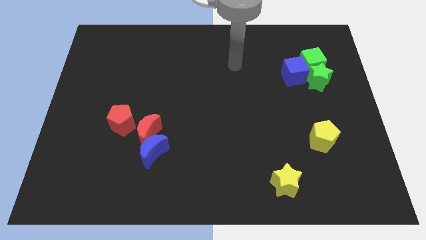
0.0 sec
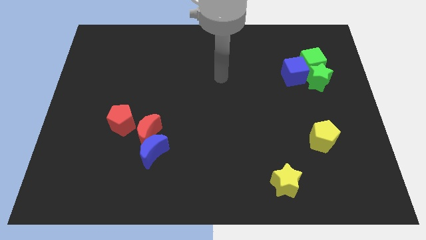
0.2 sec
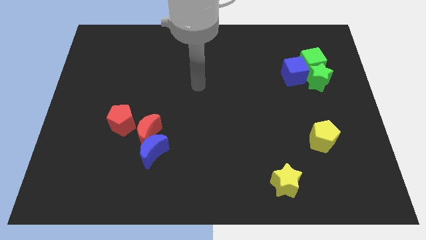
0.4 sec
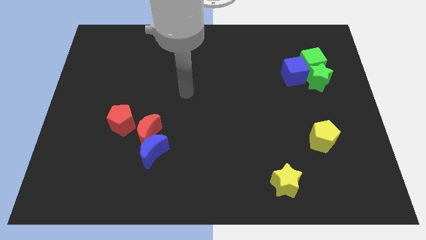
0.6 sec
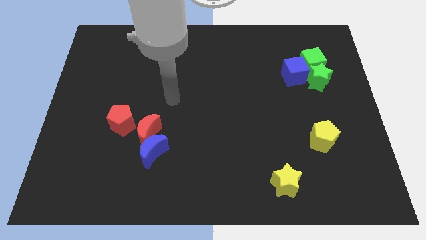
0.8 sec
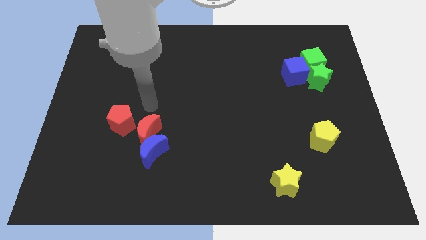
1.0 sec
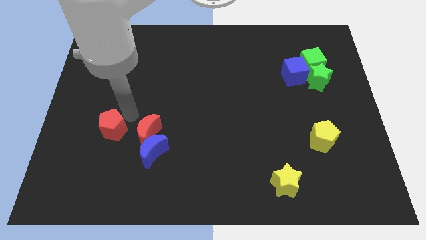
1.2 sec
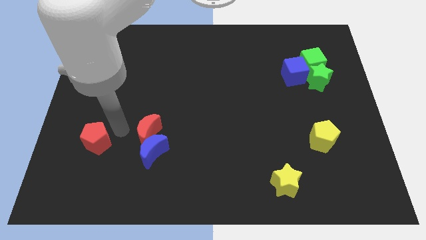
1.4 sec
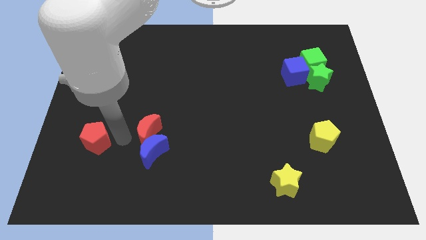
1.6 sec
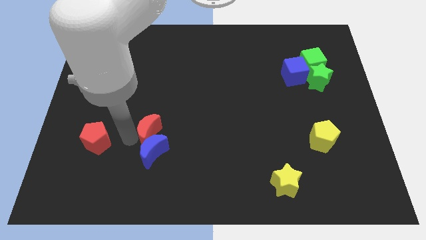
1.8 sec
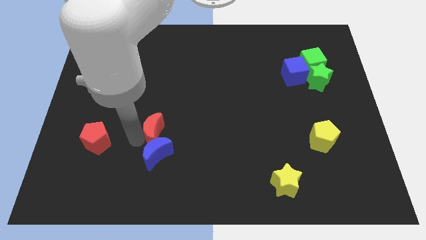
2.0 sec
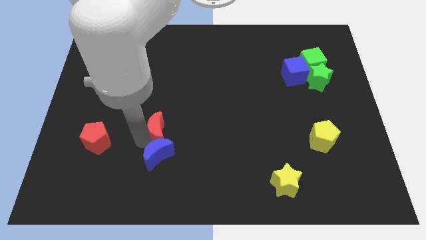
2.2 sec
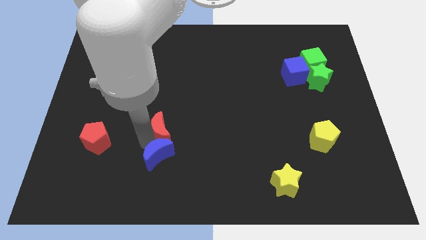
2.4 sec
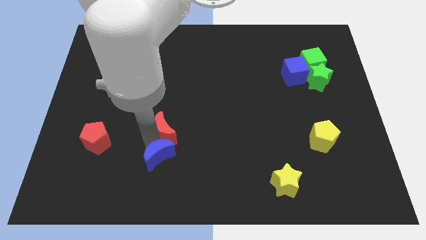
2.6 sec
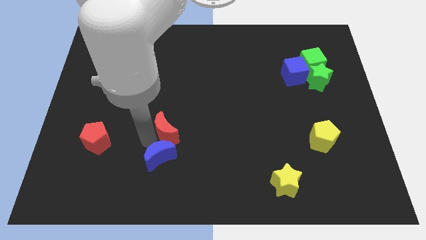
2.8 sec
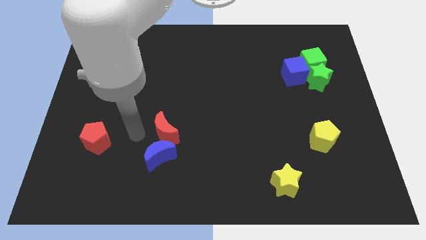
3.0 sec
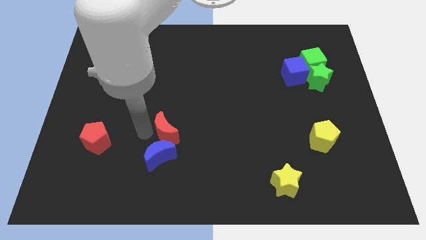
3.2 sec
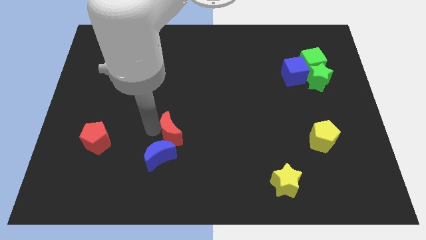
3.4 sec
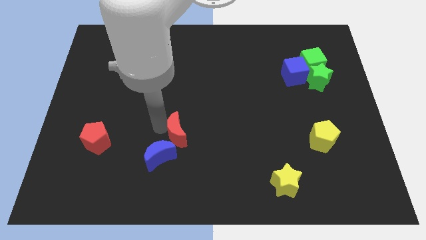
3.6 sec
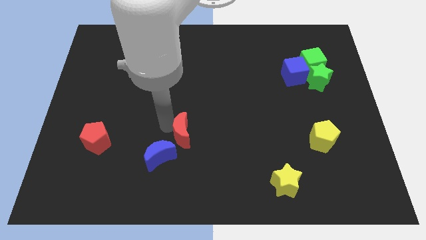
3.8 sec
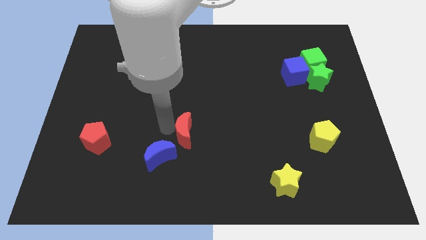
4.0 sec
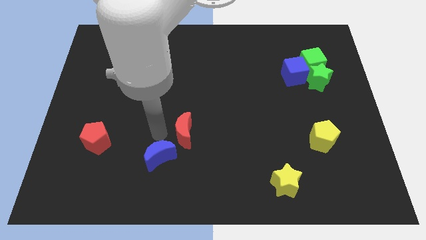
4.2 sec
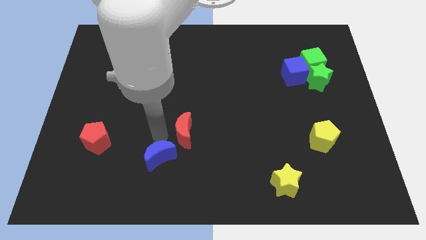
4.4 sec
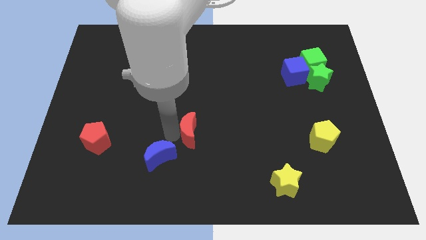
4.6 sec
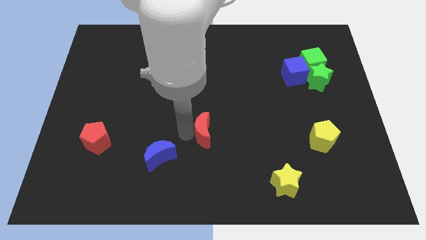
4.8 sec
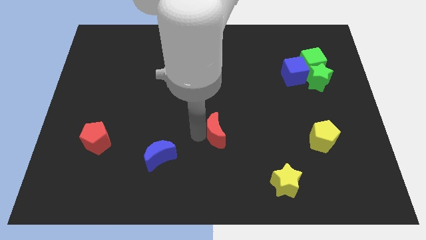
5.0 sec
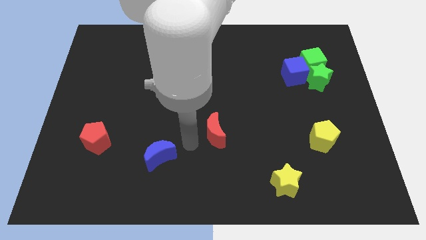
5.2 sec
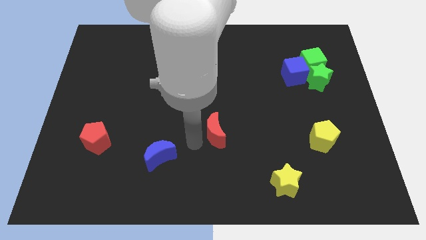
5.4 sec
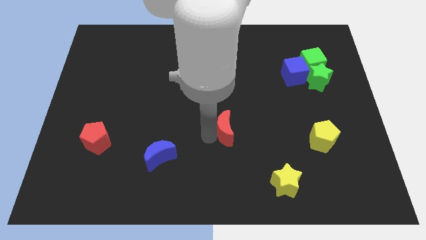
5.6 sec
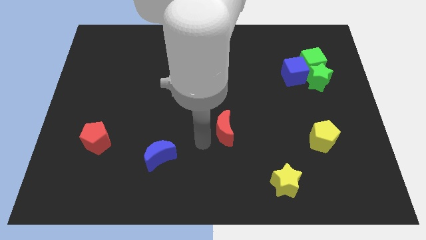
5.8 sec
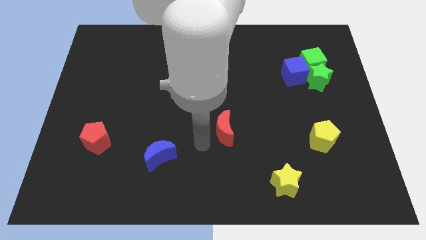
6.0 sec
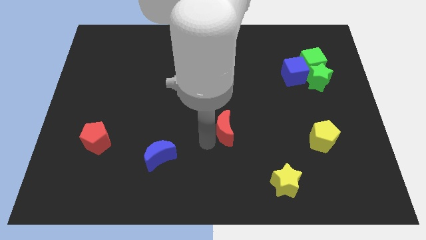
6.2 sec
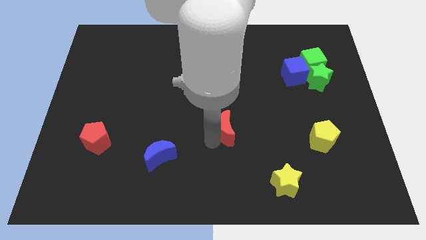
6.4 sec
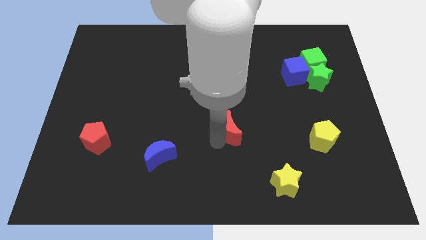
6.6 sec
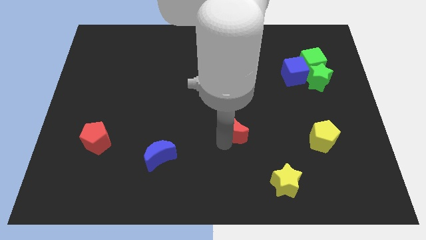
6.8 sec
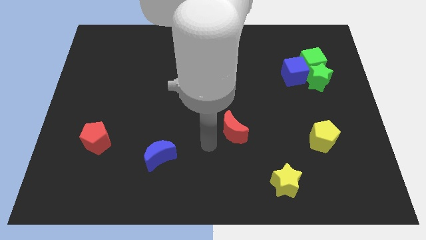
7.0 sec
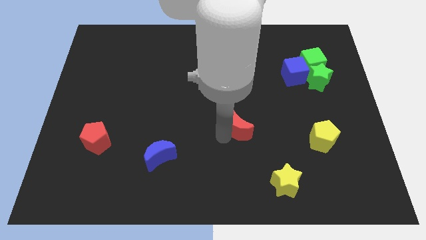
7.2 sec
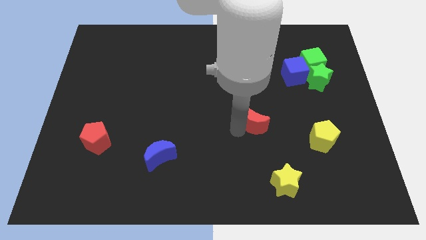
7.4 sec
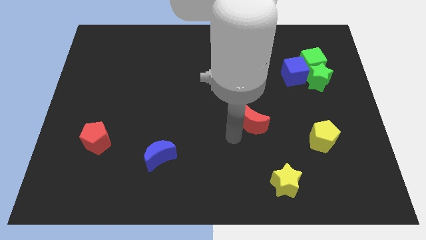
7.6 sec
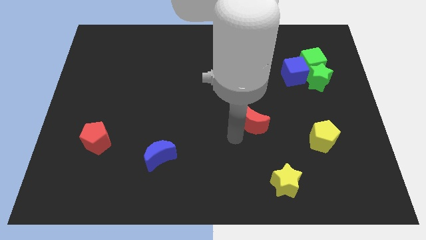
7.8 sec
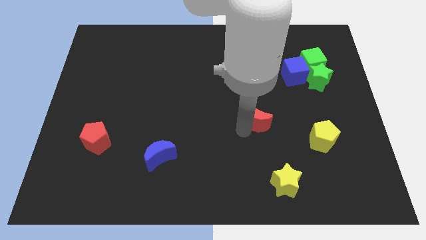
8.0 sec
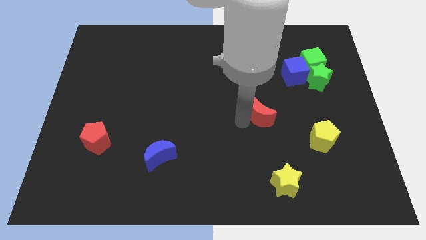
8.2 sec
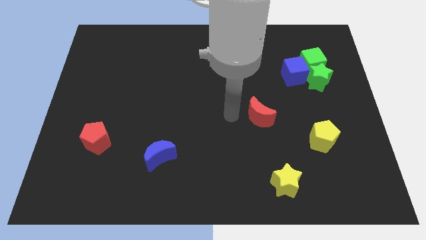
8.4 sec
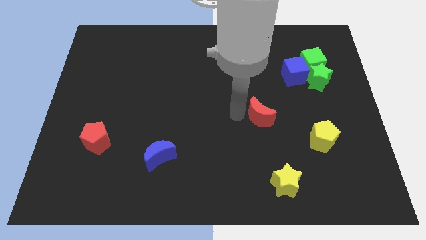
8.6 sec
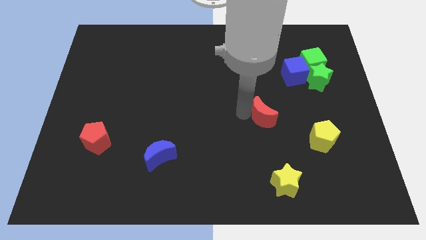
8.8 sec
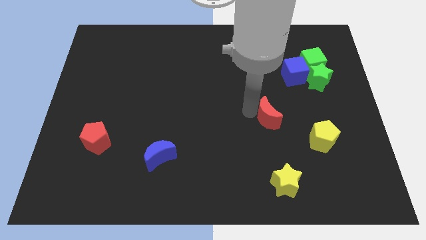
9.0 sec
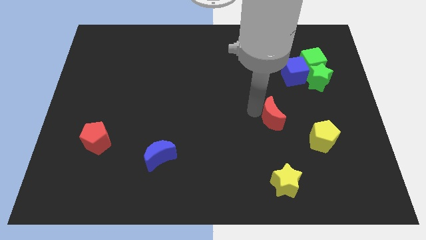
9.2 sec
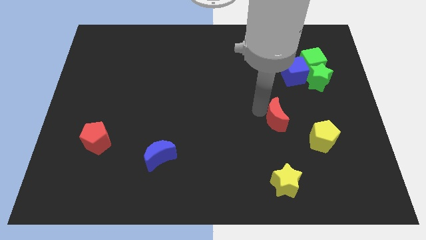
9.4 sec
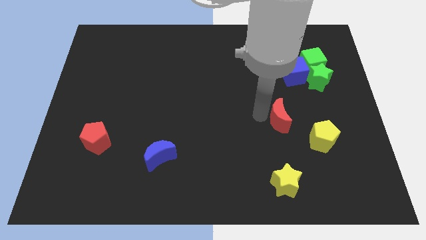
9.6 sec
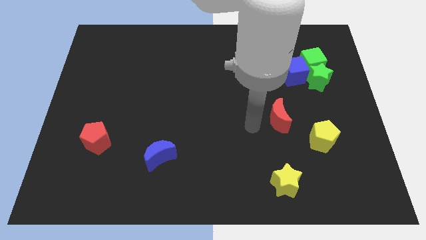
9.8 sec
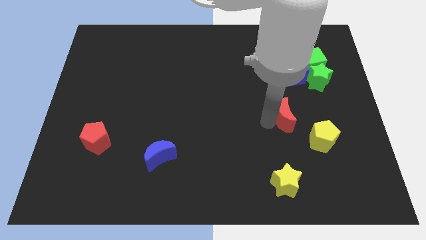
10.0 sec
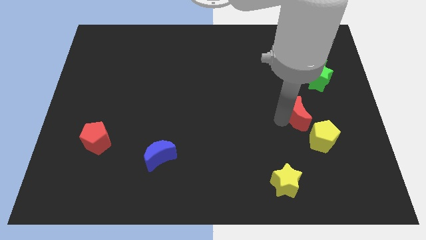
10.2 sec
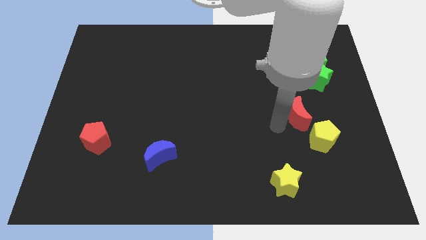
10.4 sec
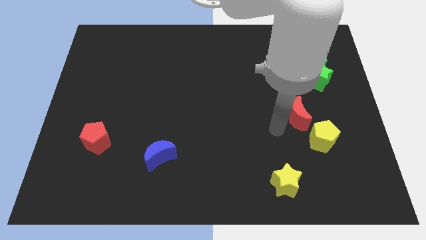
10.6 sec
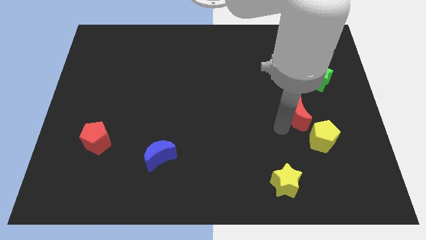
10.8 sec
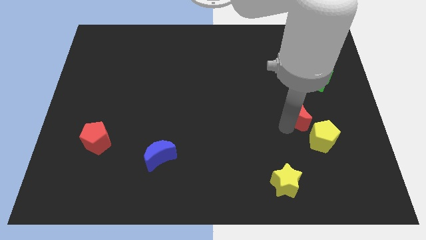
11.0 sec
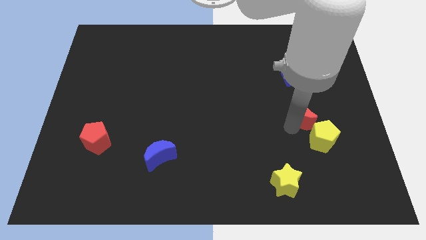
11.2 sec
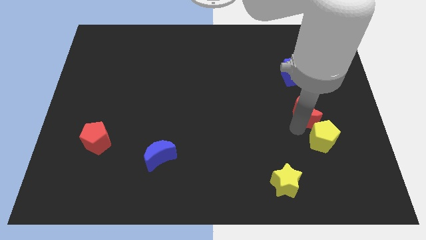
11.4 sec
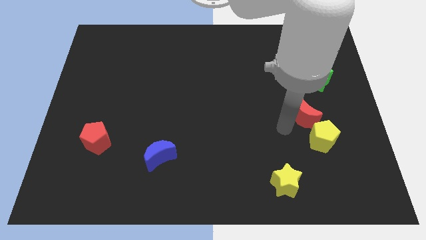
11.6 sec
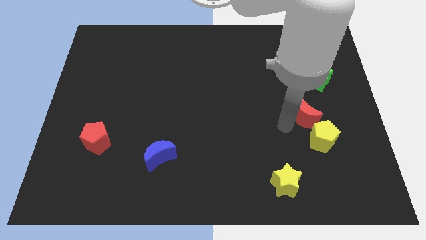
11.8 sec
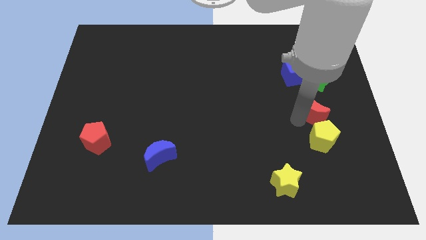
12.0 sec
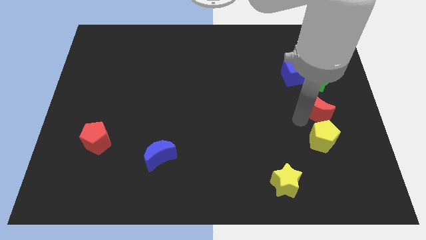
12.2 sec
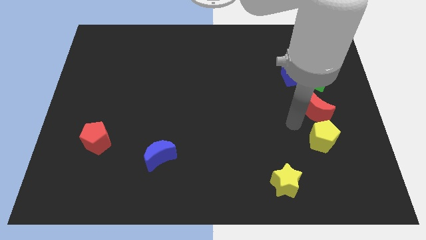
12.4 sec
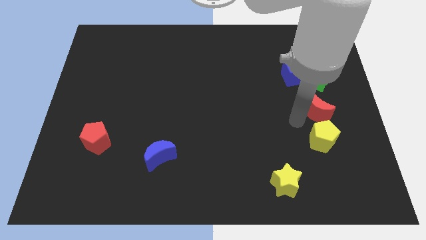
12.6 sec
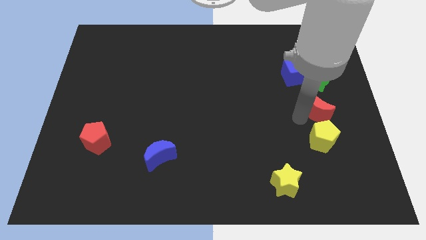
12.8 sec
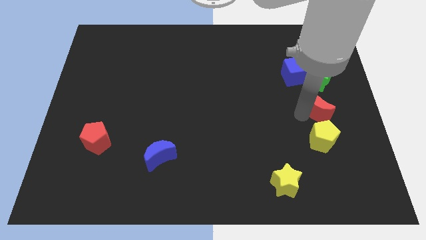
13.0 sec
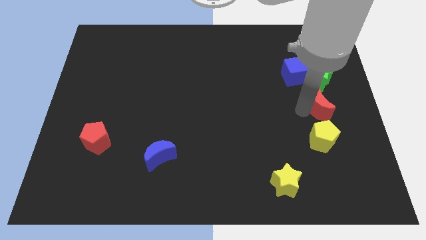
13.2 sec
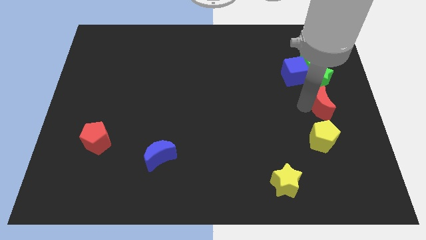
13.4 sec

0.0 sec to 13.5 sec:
move the red moon to the right side
